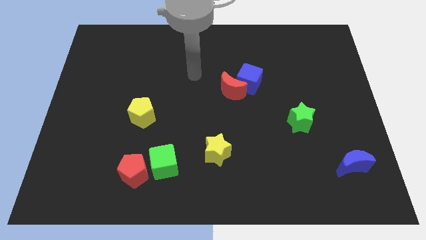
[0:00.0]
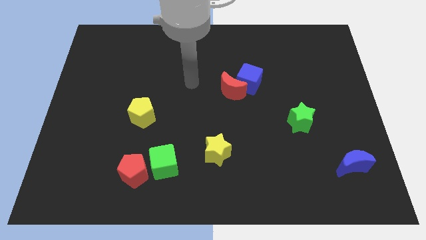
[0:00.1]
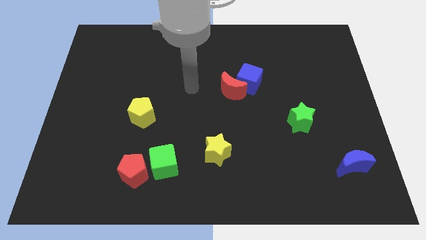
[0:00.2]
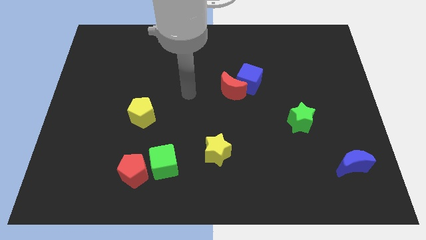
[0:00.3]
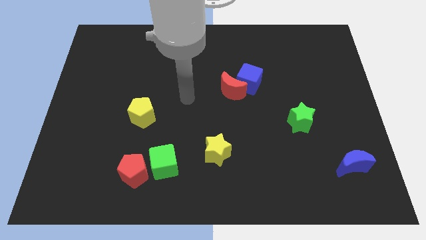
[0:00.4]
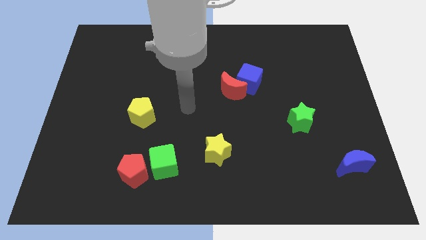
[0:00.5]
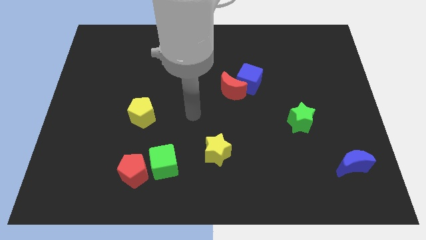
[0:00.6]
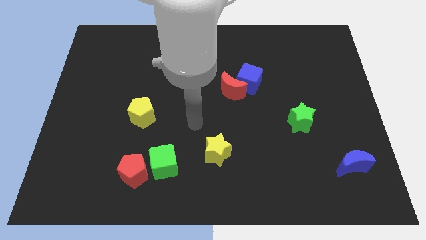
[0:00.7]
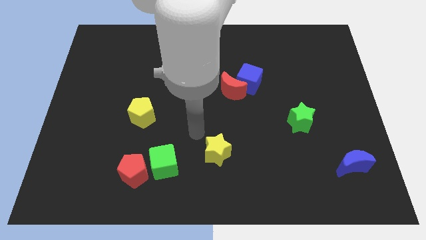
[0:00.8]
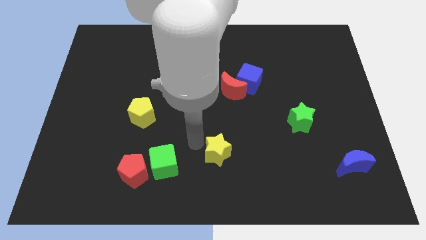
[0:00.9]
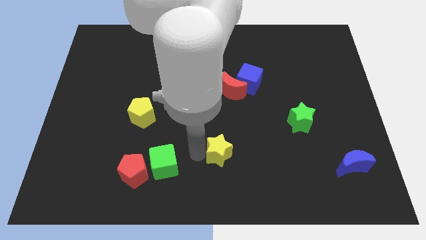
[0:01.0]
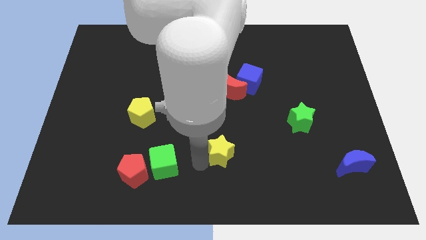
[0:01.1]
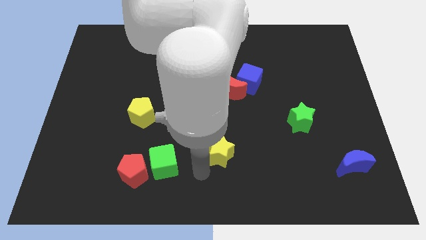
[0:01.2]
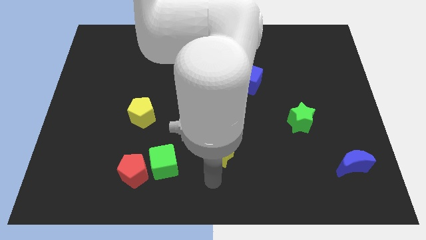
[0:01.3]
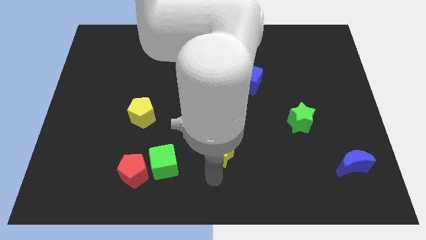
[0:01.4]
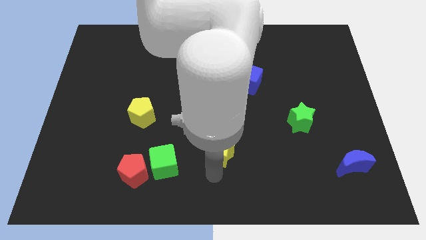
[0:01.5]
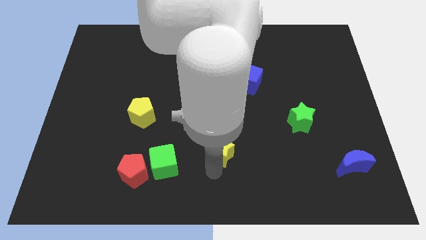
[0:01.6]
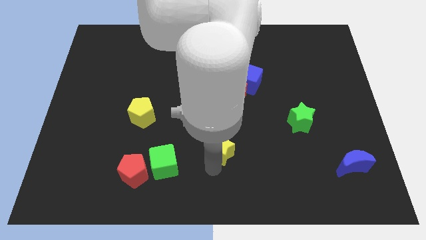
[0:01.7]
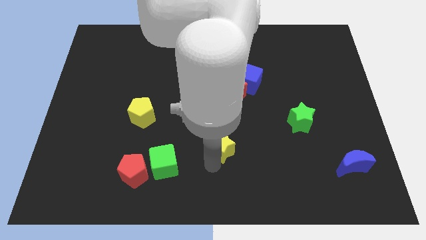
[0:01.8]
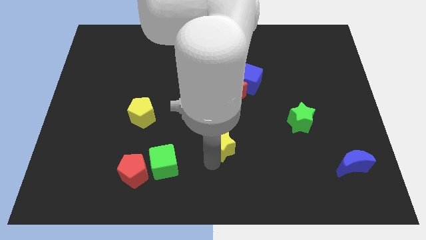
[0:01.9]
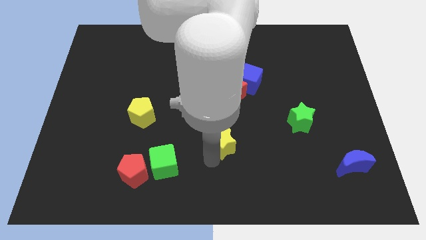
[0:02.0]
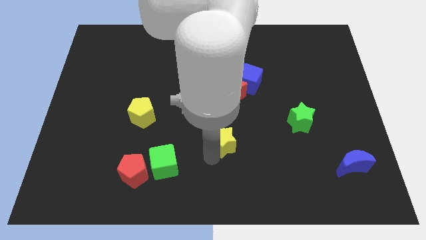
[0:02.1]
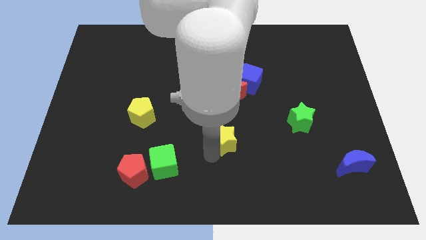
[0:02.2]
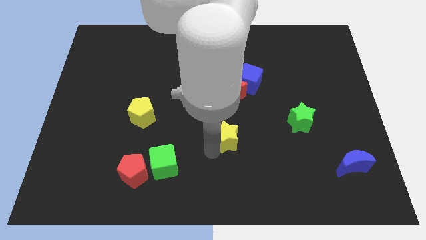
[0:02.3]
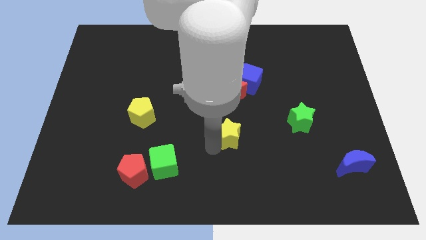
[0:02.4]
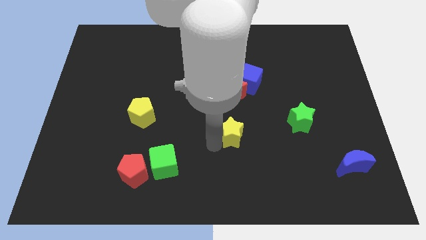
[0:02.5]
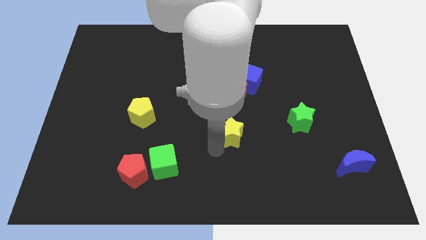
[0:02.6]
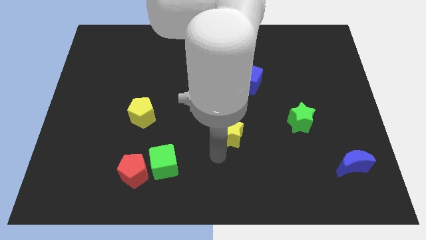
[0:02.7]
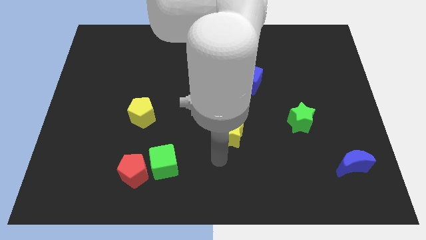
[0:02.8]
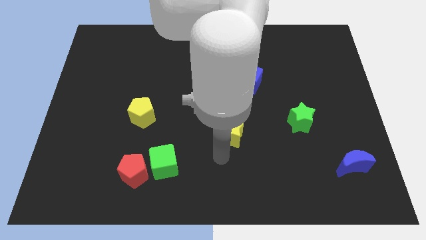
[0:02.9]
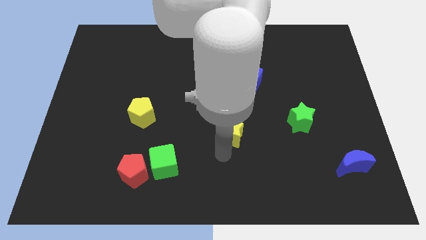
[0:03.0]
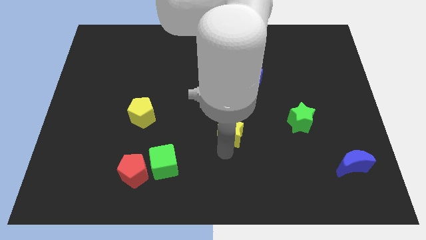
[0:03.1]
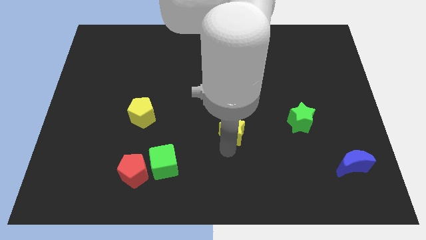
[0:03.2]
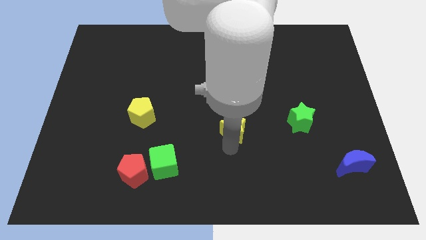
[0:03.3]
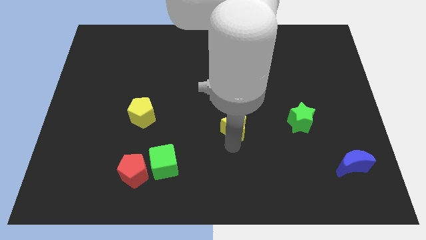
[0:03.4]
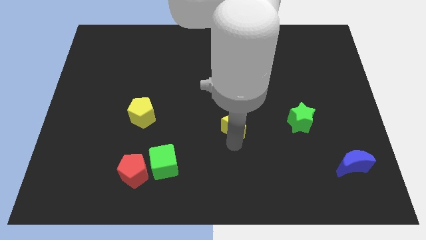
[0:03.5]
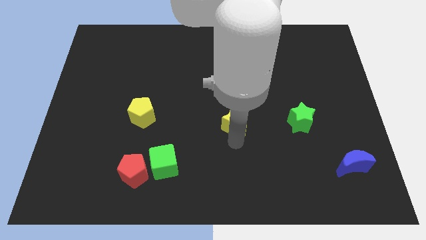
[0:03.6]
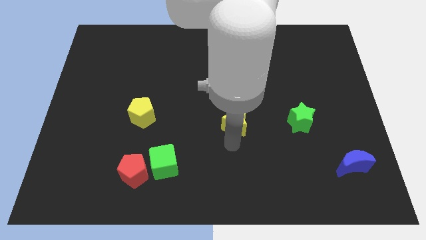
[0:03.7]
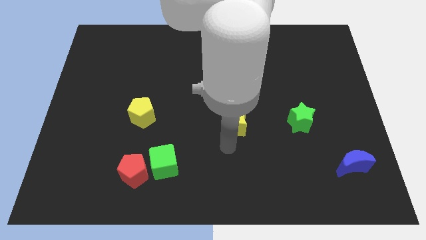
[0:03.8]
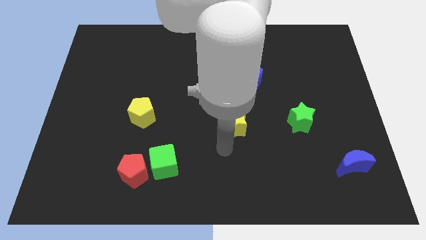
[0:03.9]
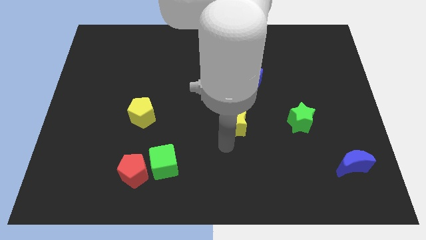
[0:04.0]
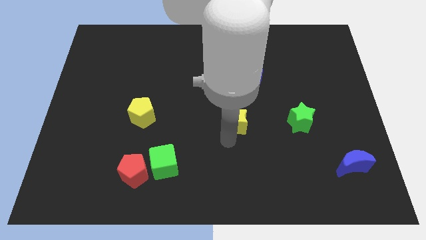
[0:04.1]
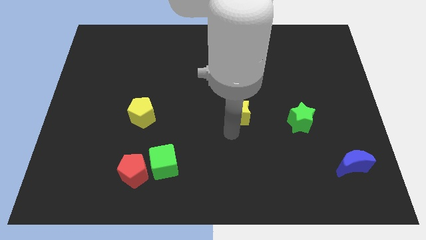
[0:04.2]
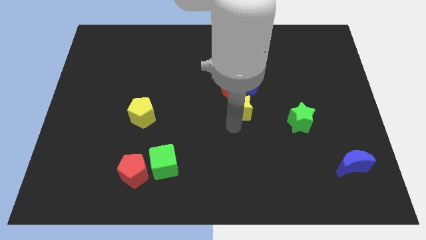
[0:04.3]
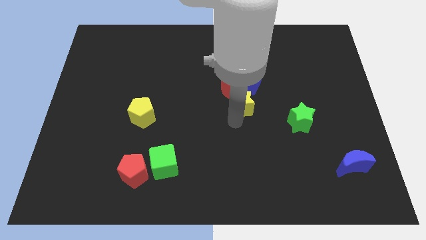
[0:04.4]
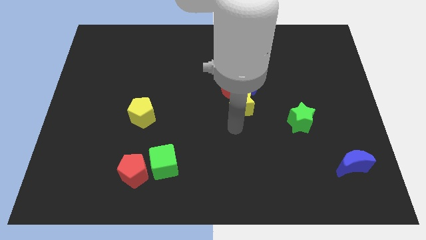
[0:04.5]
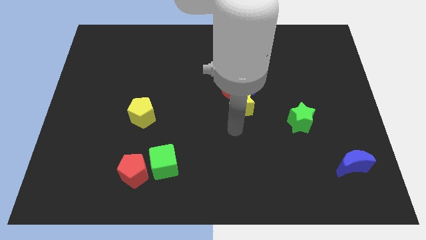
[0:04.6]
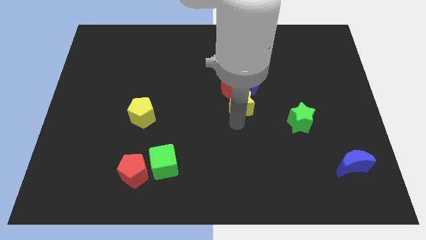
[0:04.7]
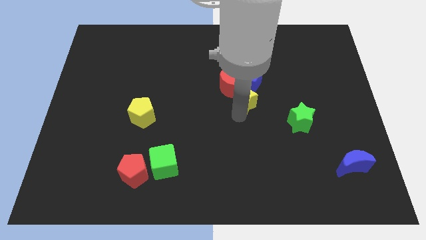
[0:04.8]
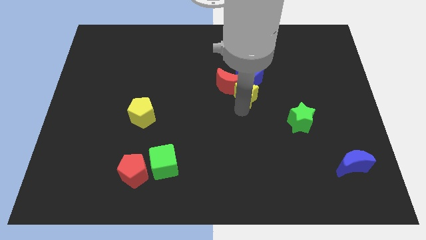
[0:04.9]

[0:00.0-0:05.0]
push the yellow star to the blue cube

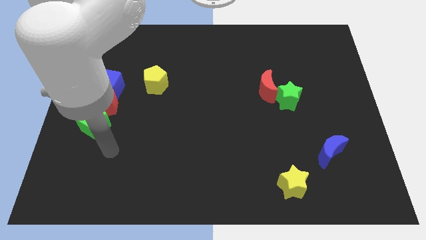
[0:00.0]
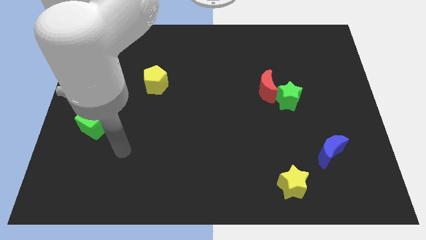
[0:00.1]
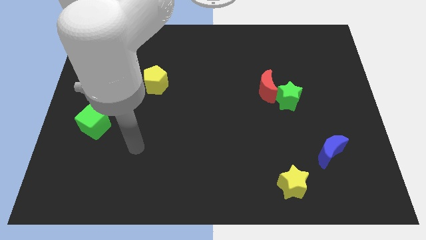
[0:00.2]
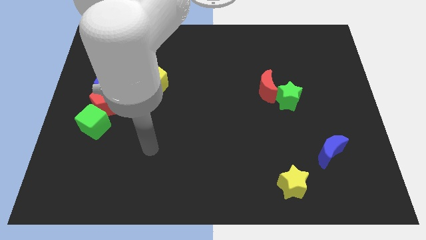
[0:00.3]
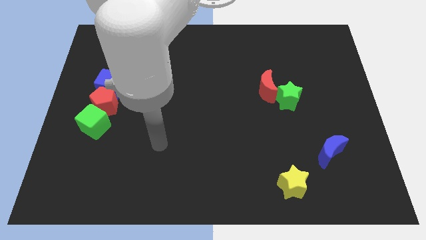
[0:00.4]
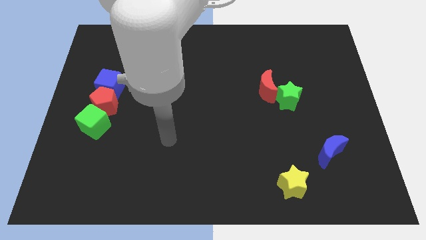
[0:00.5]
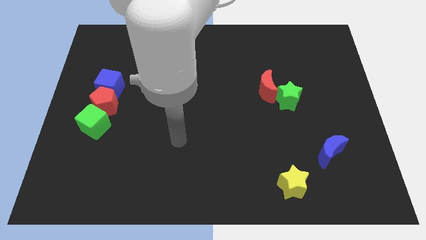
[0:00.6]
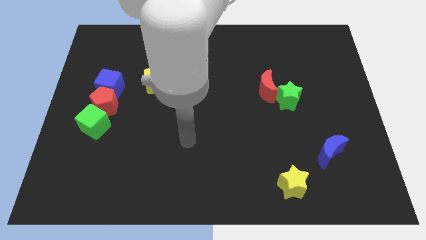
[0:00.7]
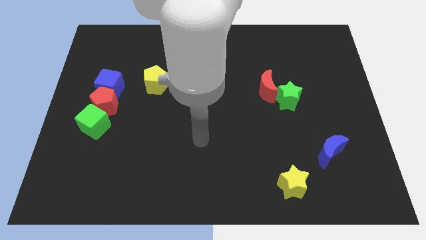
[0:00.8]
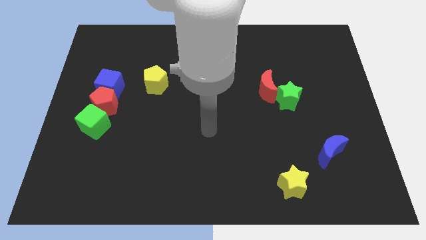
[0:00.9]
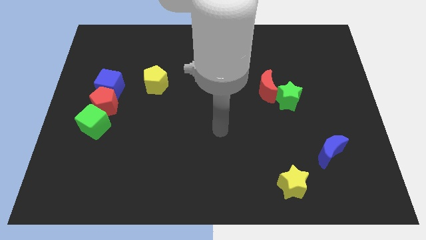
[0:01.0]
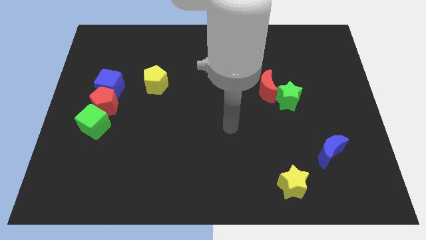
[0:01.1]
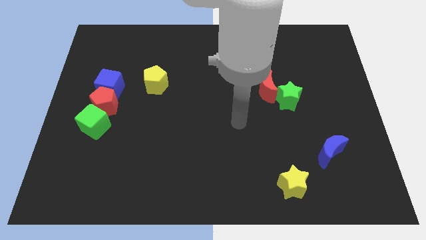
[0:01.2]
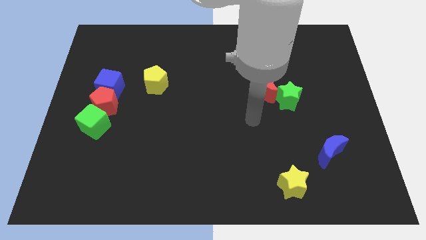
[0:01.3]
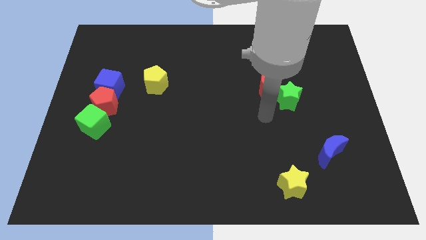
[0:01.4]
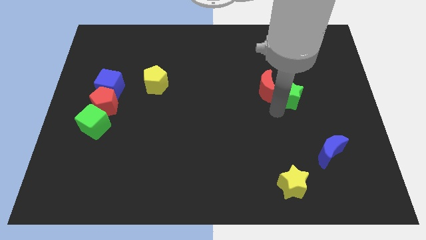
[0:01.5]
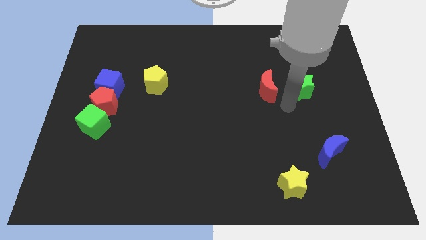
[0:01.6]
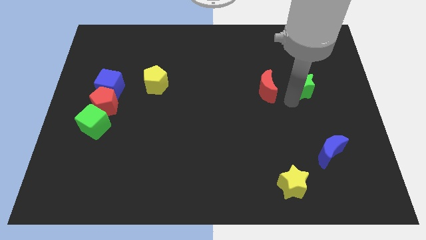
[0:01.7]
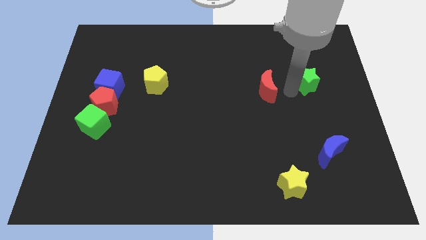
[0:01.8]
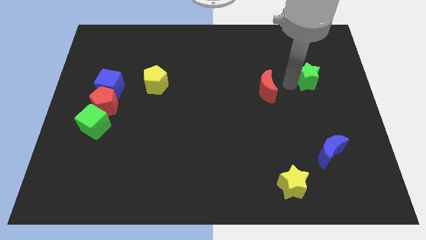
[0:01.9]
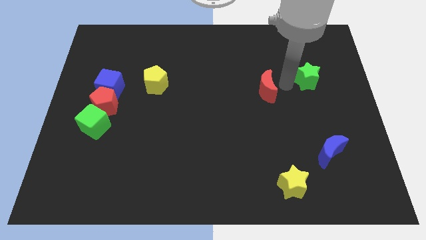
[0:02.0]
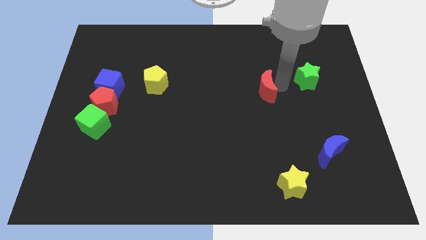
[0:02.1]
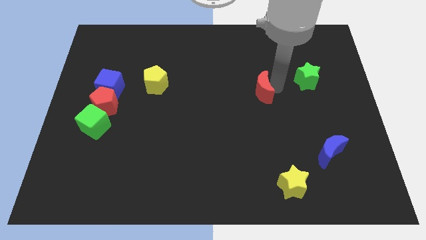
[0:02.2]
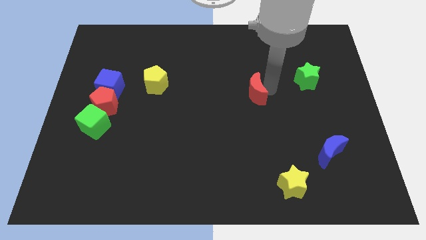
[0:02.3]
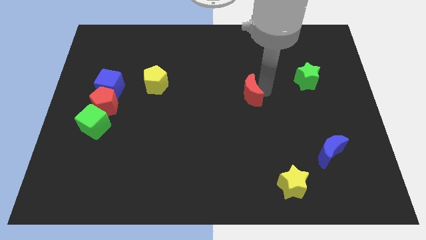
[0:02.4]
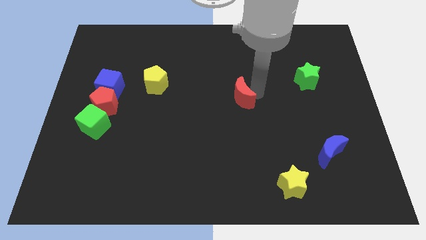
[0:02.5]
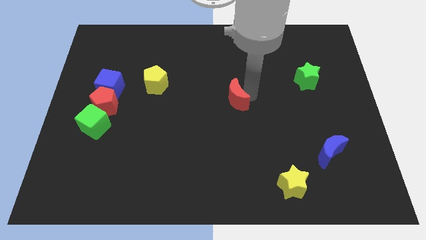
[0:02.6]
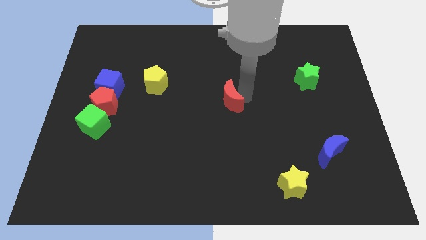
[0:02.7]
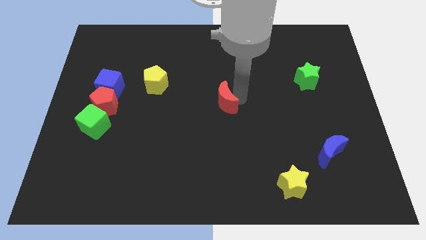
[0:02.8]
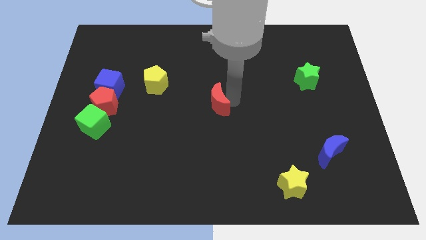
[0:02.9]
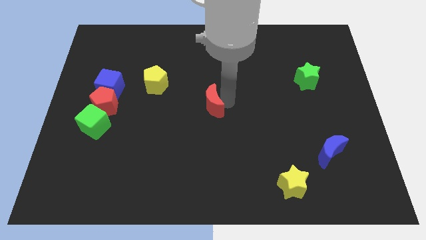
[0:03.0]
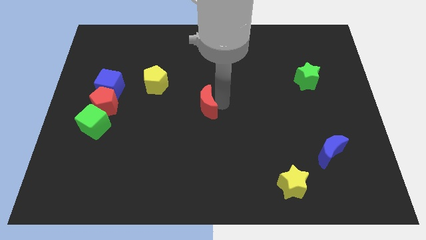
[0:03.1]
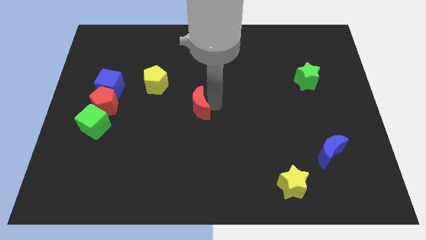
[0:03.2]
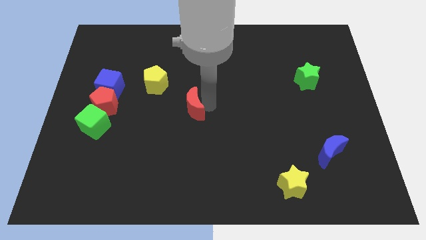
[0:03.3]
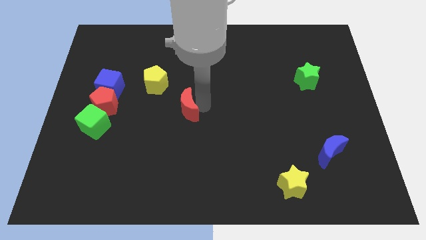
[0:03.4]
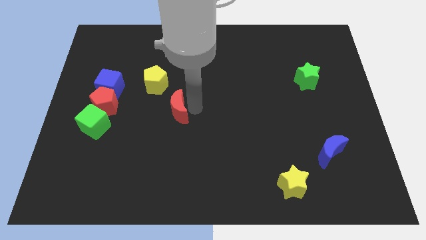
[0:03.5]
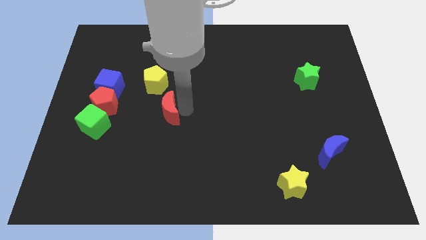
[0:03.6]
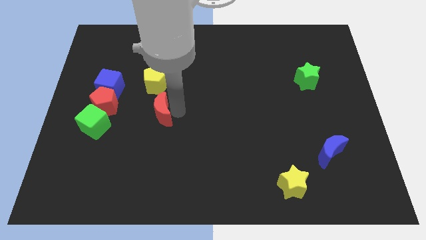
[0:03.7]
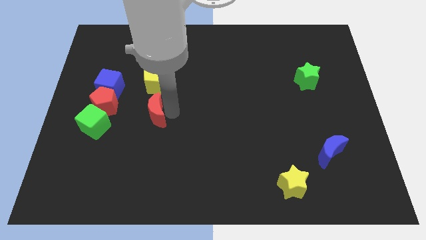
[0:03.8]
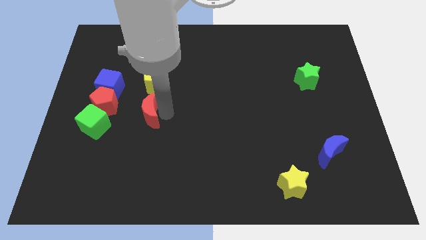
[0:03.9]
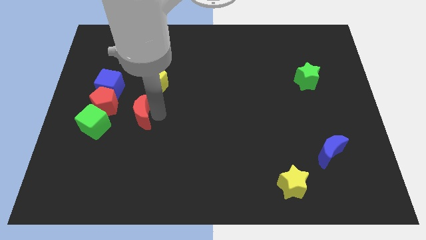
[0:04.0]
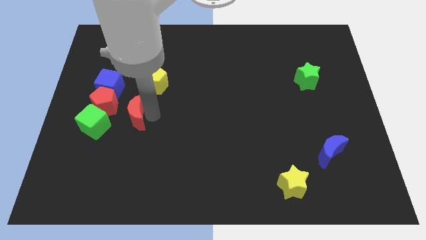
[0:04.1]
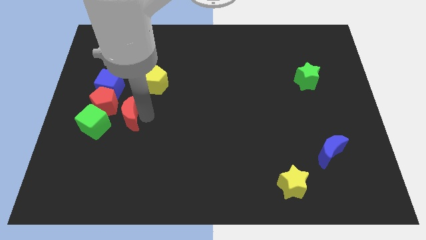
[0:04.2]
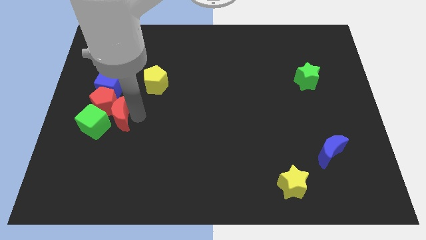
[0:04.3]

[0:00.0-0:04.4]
slide the red moon to the green cube
